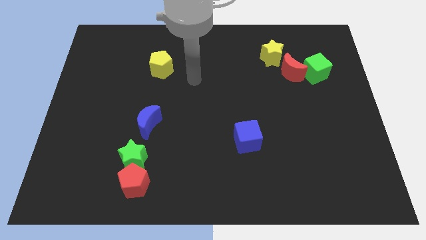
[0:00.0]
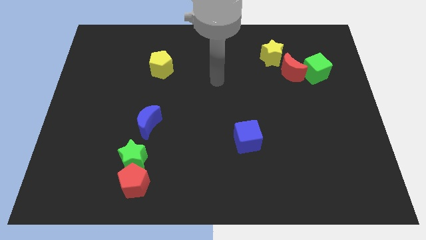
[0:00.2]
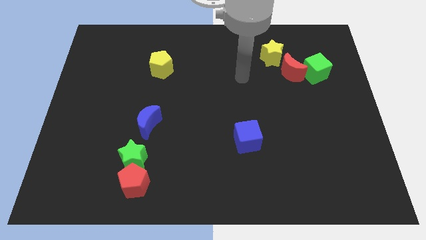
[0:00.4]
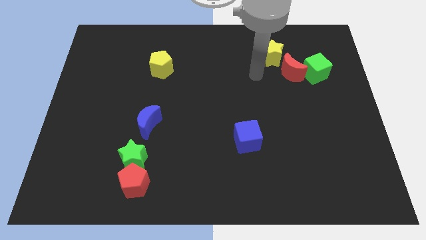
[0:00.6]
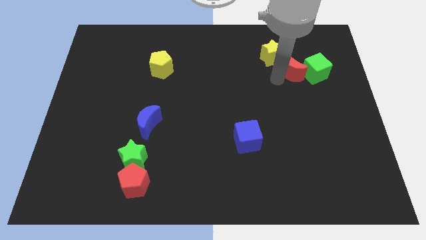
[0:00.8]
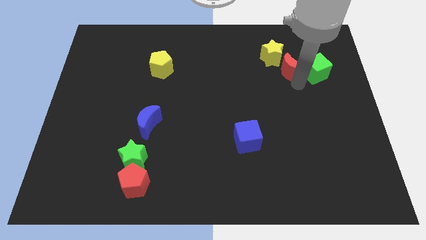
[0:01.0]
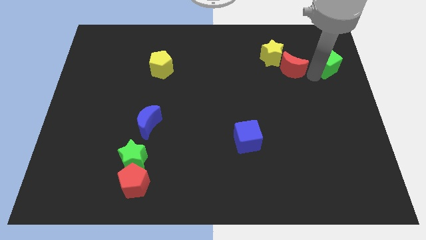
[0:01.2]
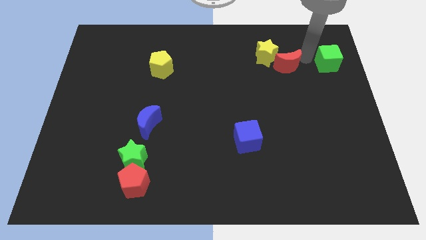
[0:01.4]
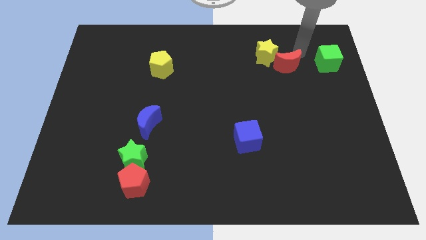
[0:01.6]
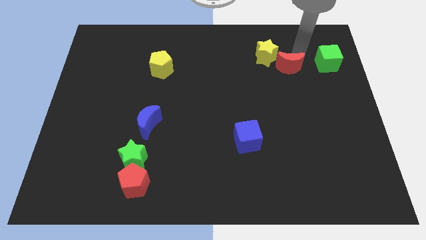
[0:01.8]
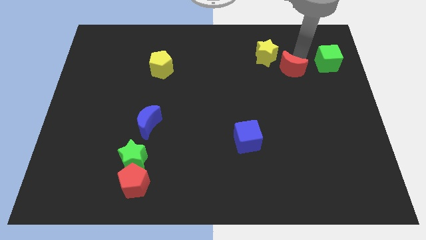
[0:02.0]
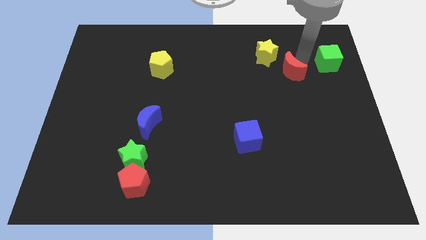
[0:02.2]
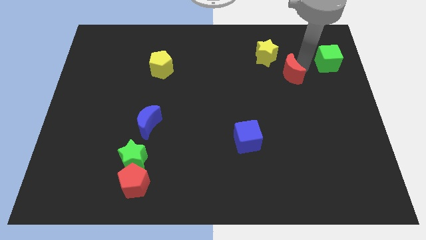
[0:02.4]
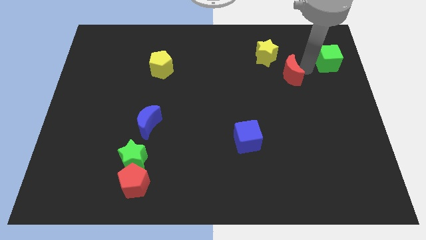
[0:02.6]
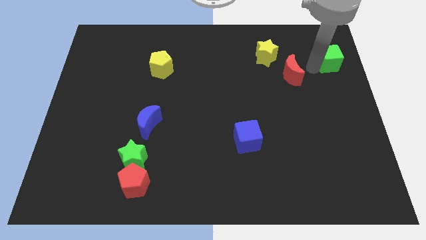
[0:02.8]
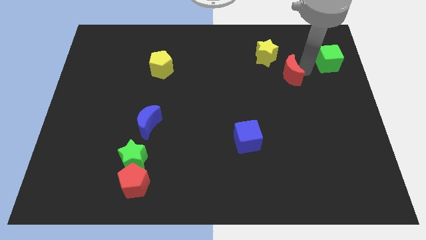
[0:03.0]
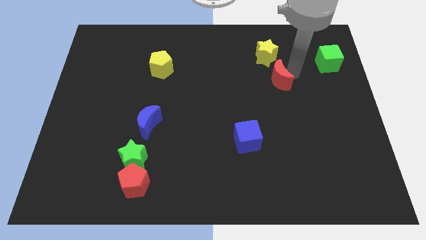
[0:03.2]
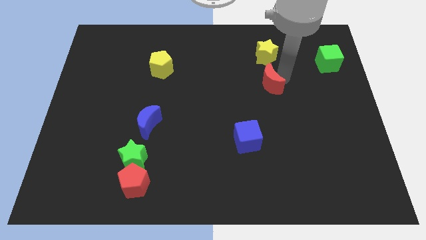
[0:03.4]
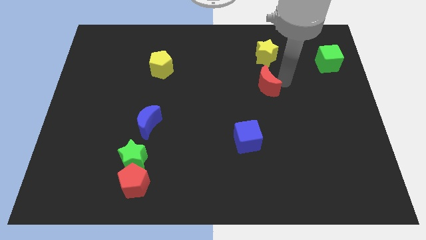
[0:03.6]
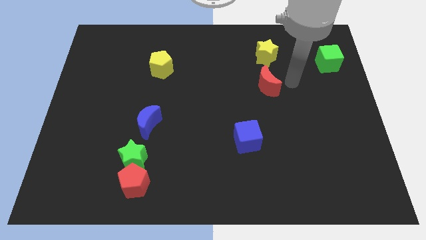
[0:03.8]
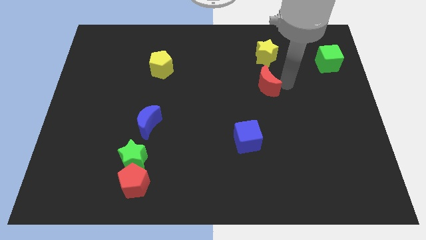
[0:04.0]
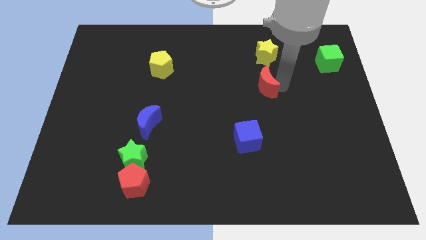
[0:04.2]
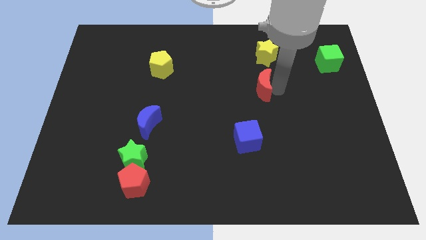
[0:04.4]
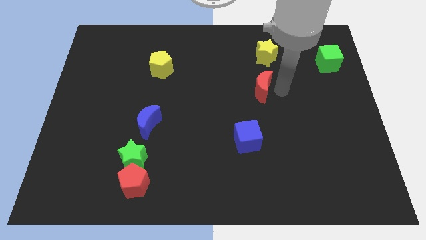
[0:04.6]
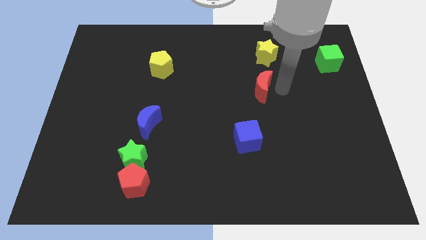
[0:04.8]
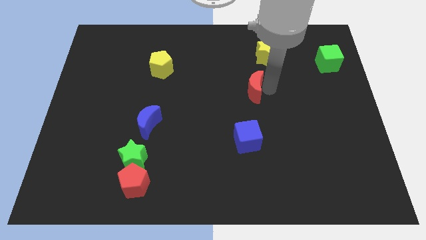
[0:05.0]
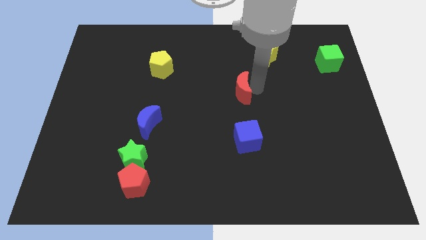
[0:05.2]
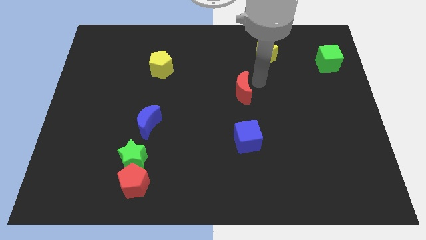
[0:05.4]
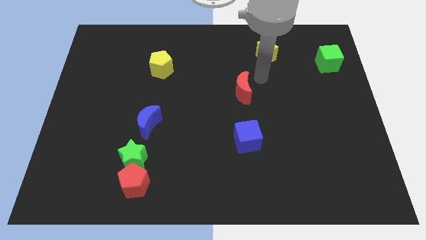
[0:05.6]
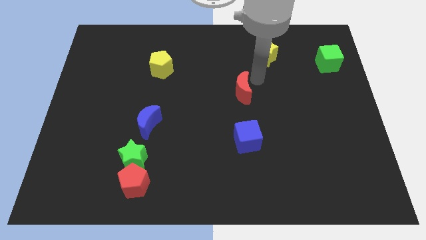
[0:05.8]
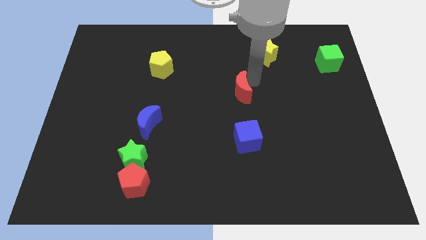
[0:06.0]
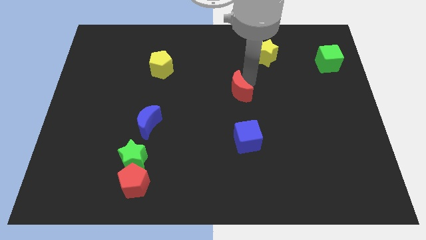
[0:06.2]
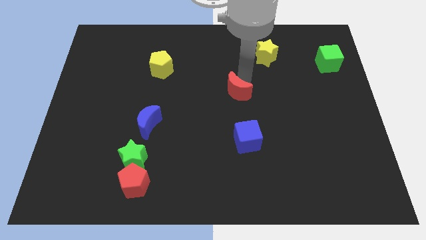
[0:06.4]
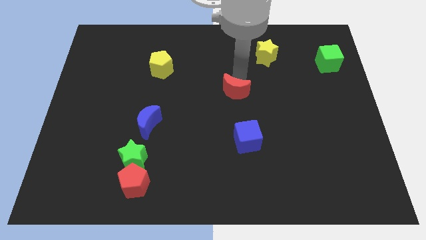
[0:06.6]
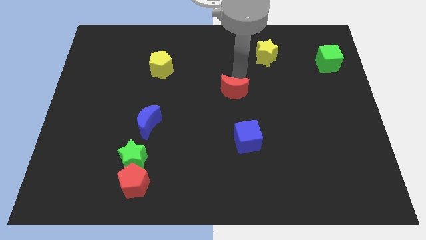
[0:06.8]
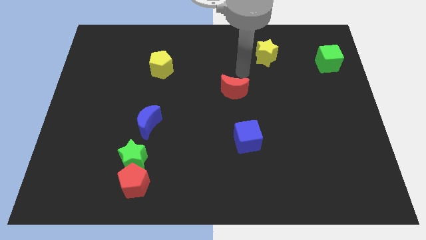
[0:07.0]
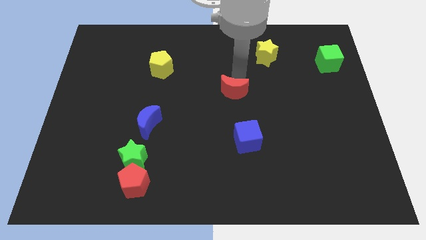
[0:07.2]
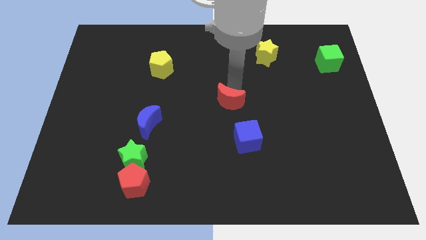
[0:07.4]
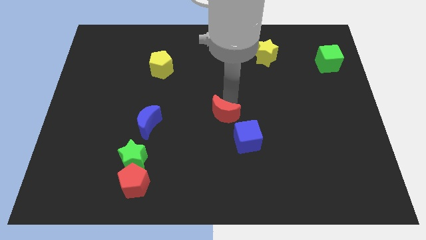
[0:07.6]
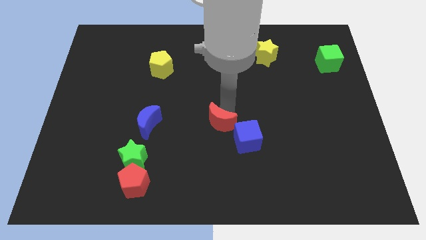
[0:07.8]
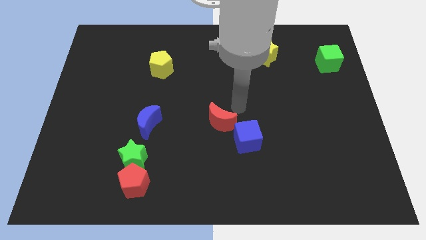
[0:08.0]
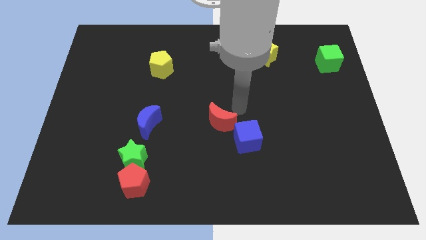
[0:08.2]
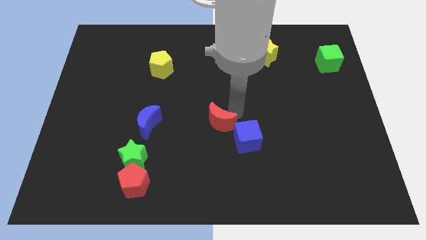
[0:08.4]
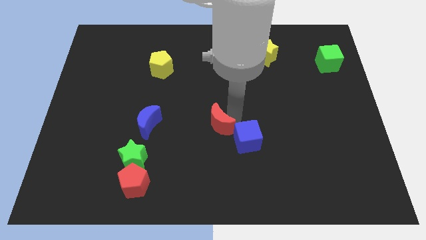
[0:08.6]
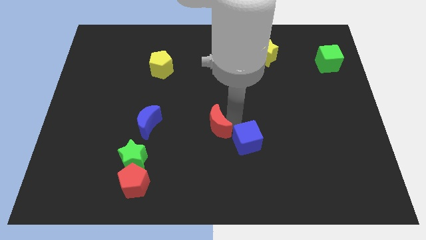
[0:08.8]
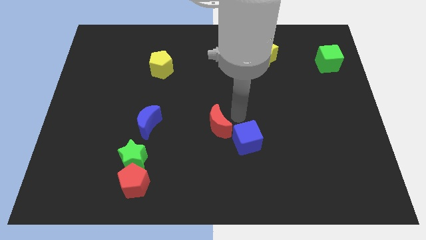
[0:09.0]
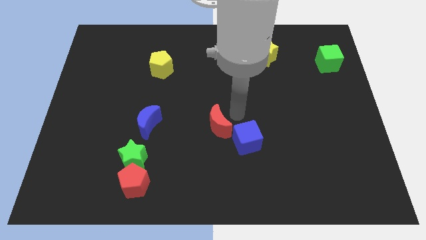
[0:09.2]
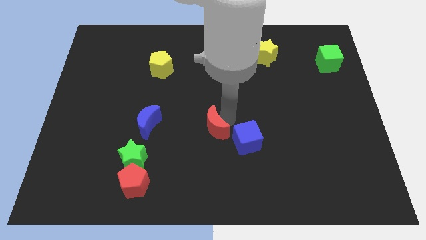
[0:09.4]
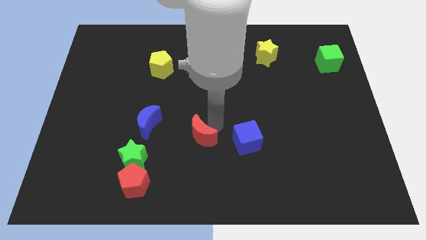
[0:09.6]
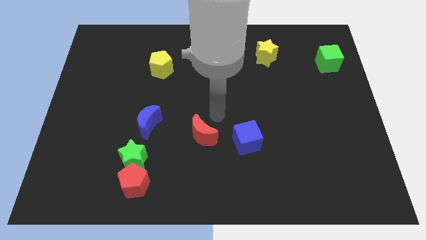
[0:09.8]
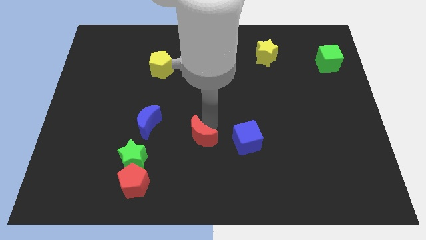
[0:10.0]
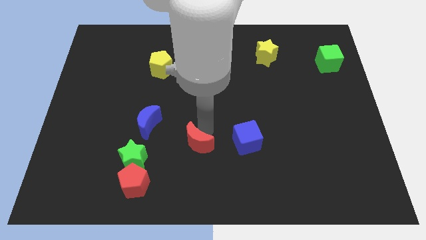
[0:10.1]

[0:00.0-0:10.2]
slide the red moon just right of the green star

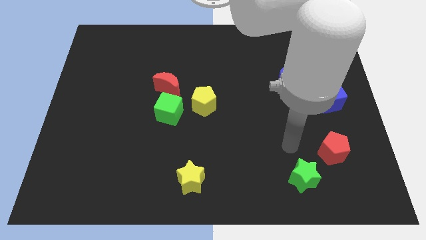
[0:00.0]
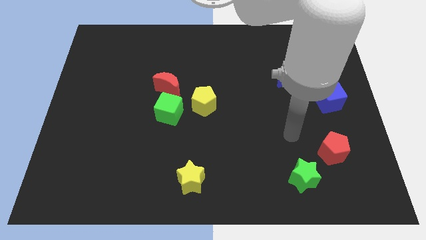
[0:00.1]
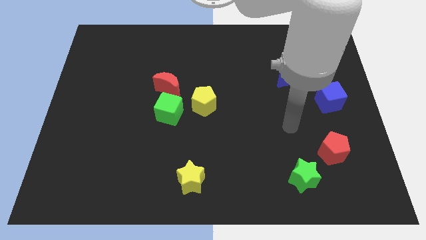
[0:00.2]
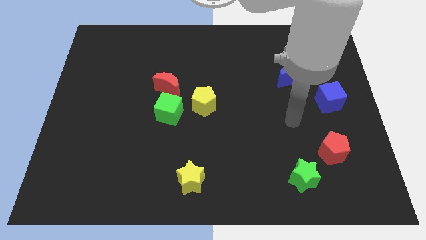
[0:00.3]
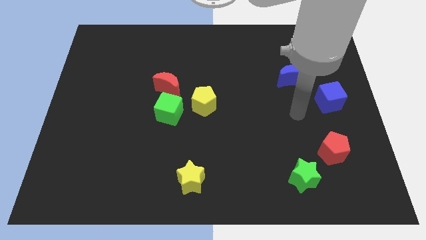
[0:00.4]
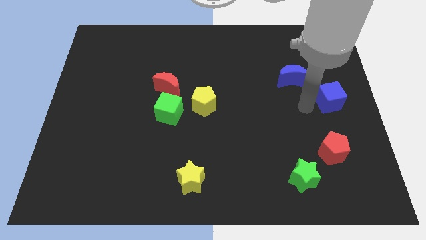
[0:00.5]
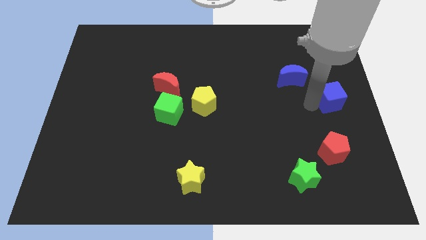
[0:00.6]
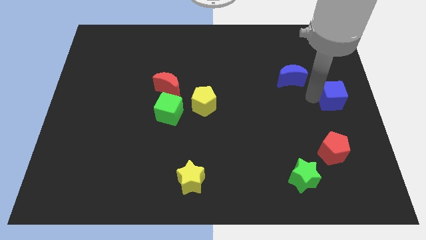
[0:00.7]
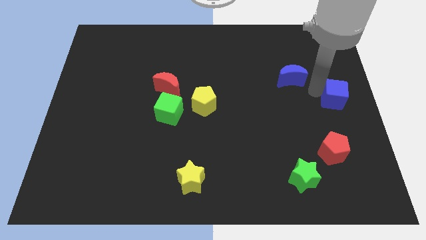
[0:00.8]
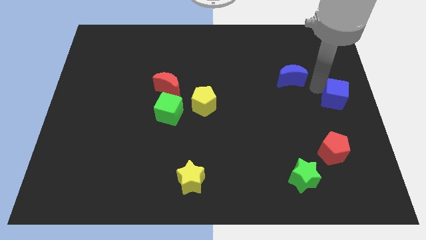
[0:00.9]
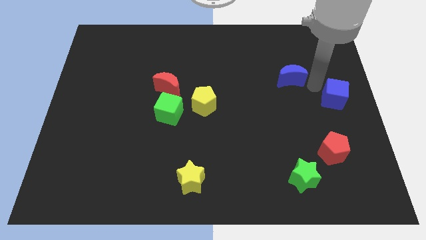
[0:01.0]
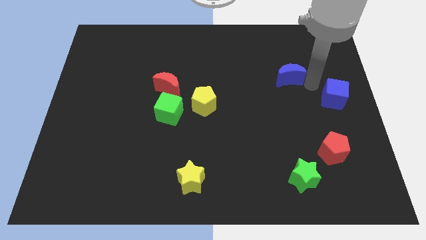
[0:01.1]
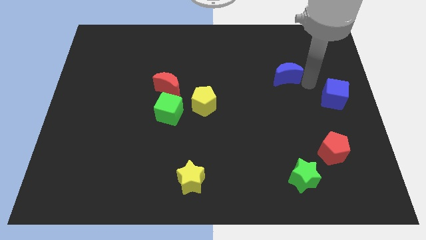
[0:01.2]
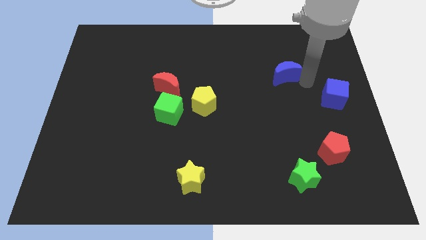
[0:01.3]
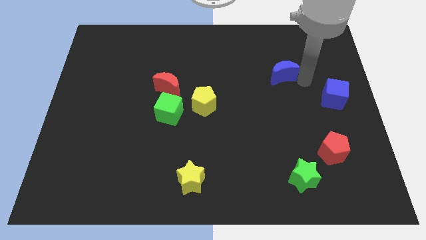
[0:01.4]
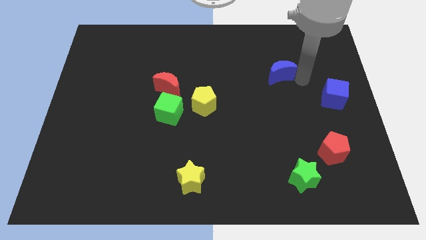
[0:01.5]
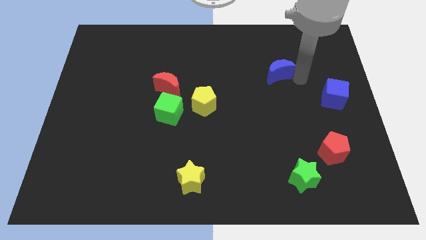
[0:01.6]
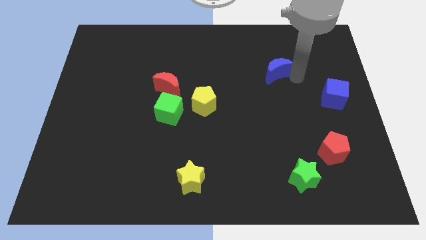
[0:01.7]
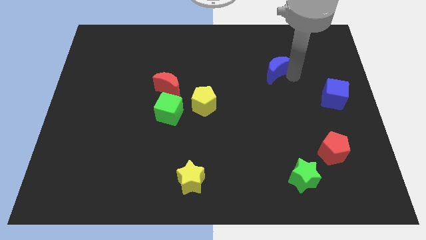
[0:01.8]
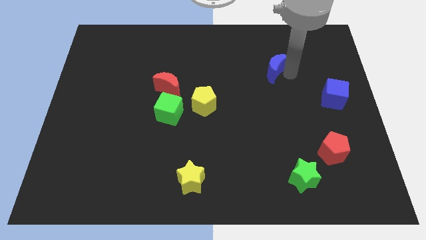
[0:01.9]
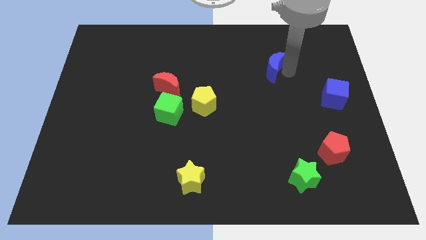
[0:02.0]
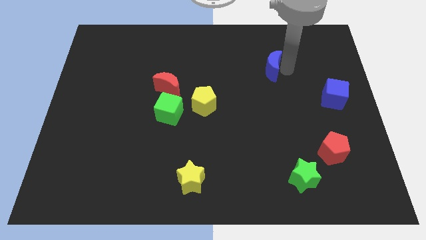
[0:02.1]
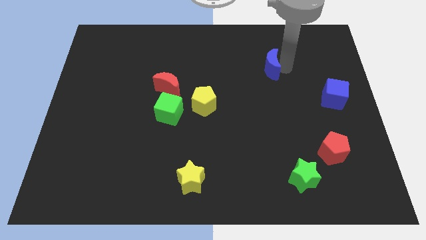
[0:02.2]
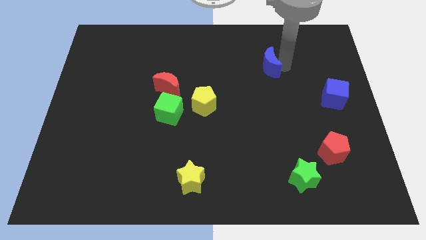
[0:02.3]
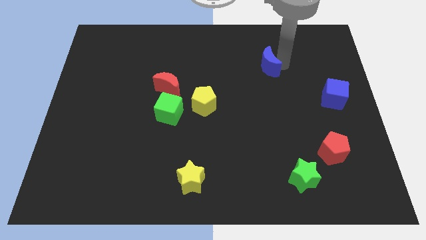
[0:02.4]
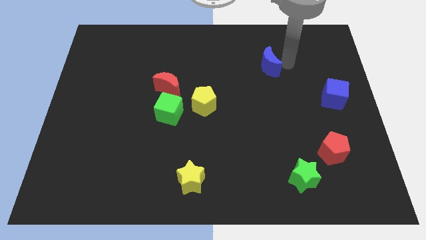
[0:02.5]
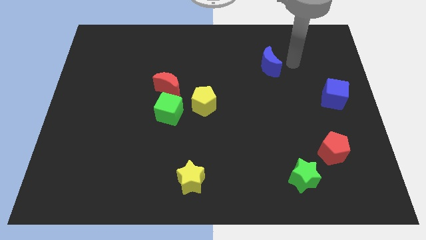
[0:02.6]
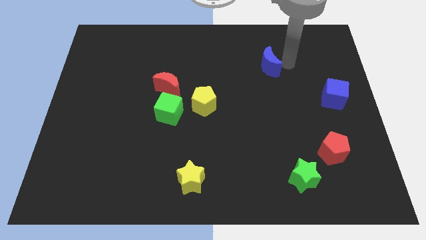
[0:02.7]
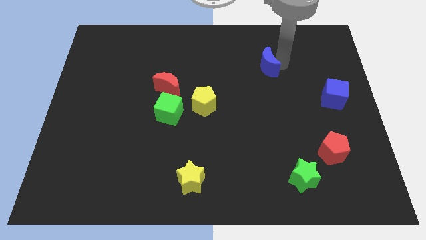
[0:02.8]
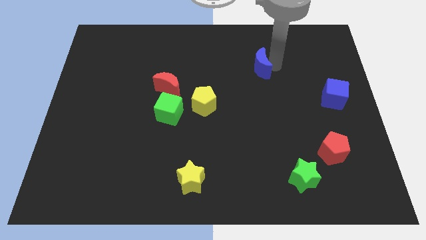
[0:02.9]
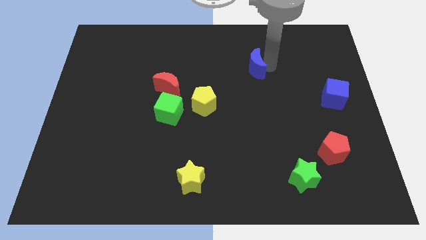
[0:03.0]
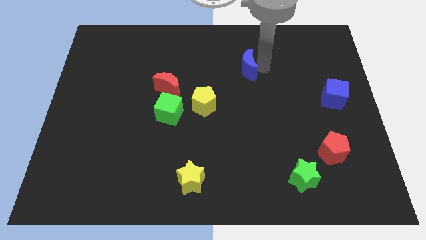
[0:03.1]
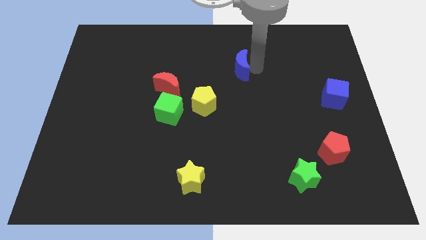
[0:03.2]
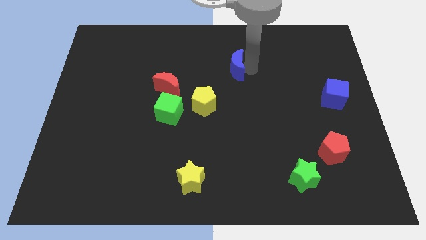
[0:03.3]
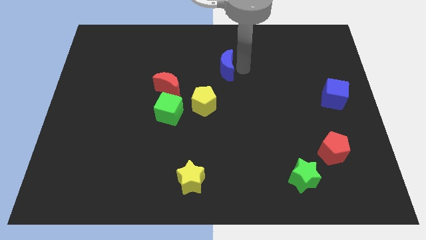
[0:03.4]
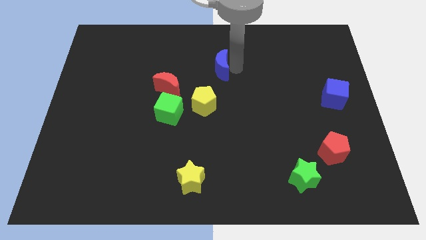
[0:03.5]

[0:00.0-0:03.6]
put the blue moon to the top of the yellow pentagon
